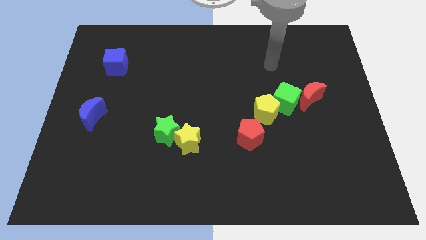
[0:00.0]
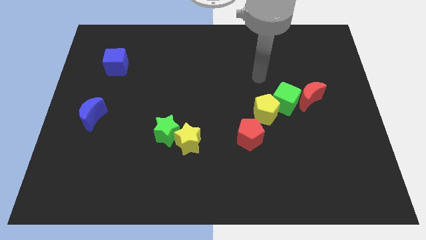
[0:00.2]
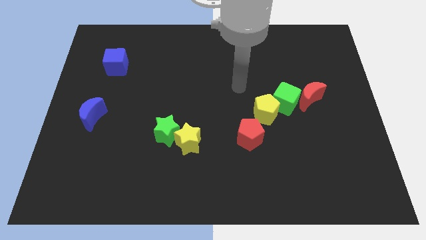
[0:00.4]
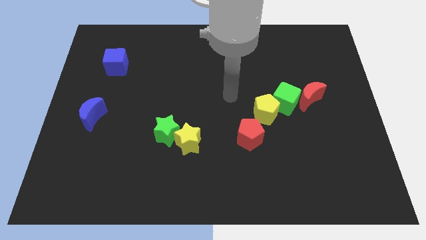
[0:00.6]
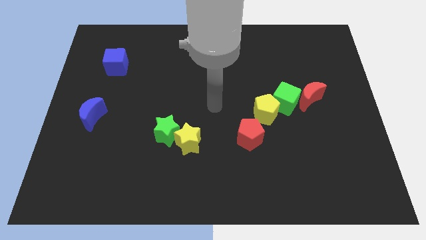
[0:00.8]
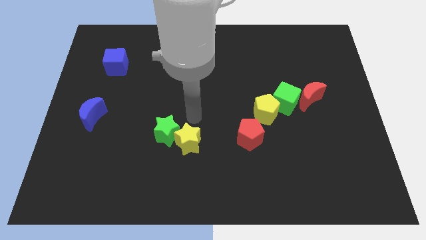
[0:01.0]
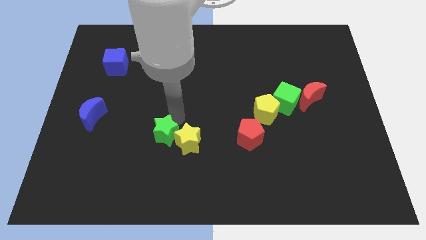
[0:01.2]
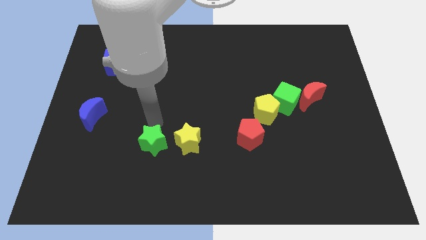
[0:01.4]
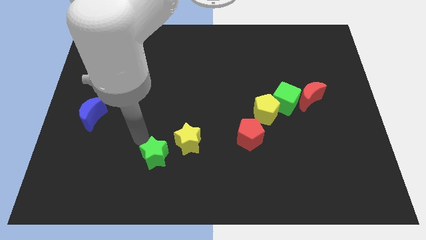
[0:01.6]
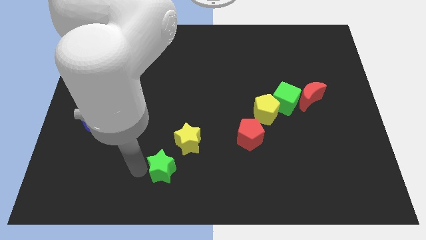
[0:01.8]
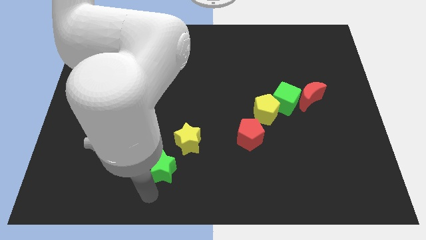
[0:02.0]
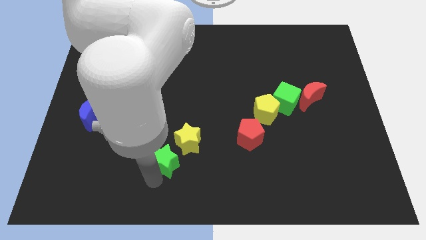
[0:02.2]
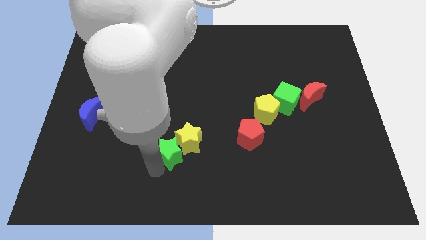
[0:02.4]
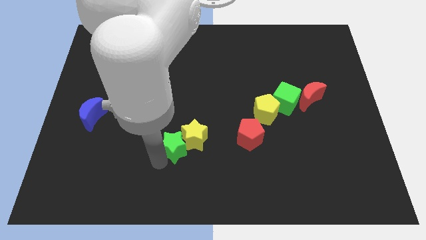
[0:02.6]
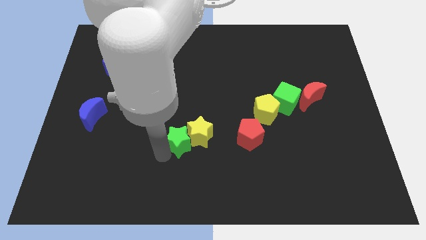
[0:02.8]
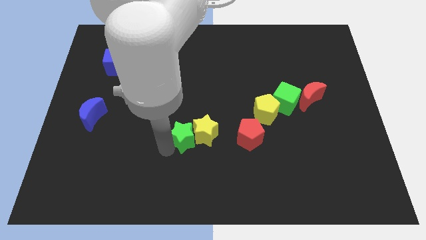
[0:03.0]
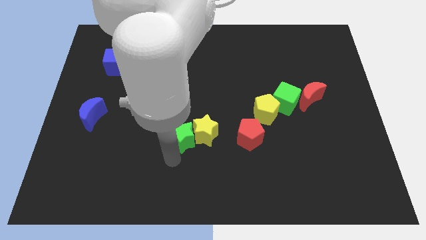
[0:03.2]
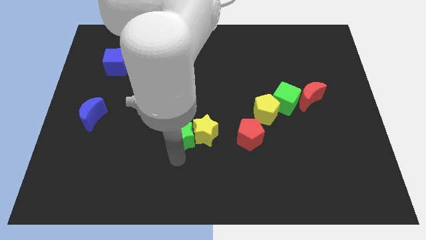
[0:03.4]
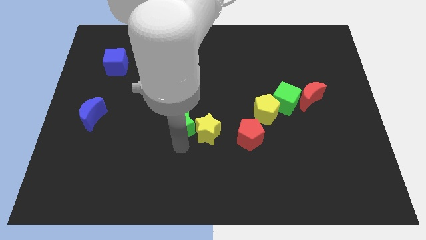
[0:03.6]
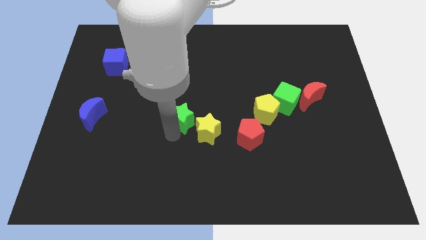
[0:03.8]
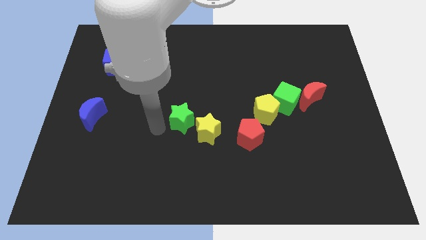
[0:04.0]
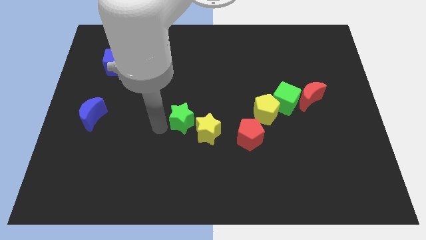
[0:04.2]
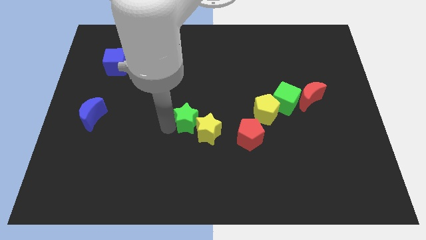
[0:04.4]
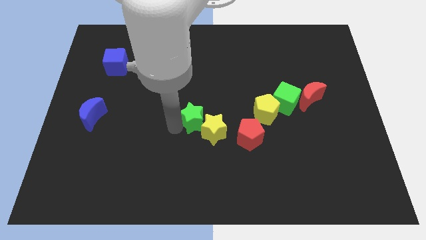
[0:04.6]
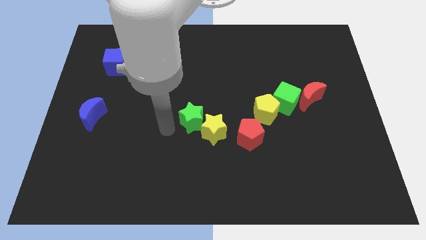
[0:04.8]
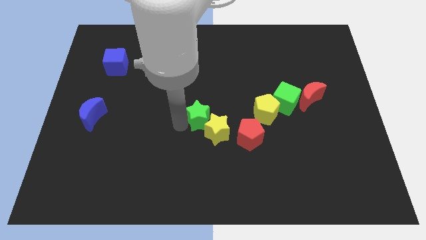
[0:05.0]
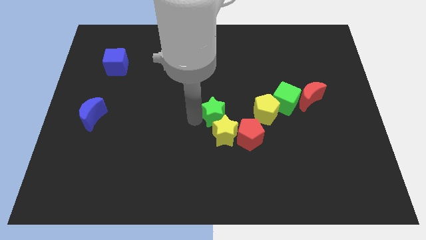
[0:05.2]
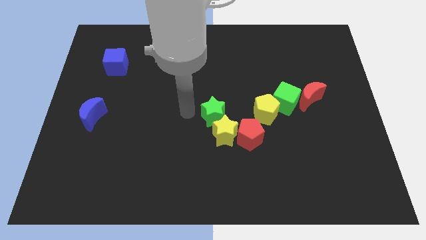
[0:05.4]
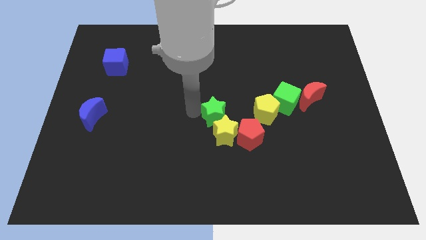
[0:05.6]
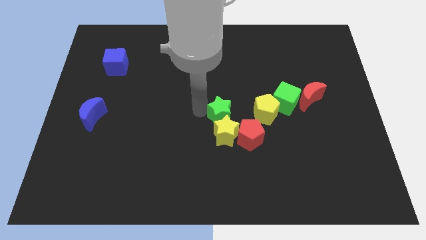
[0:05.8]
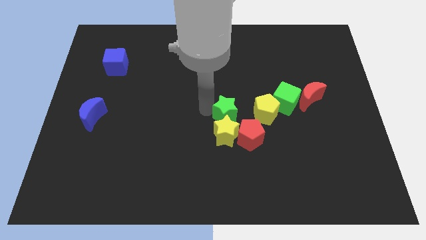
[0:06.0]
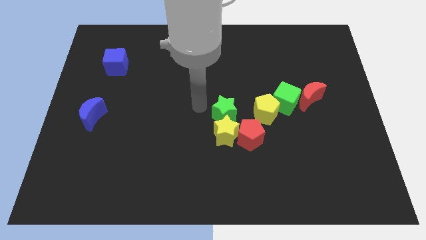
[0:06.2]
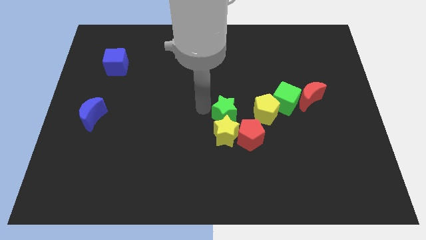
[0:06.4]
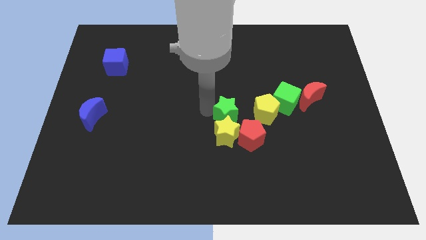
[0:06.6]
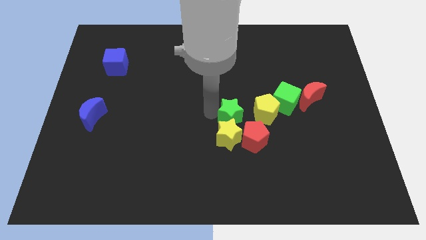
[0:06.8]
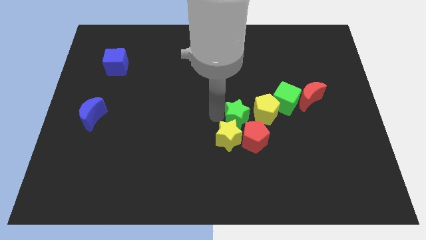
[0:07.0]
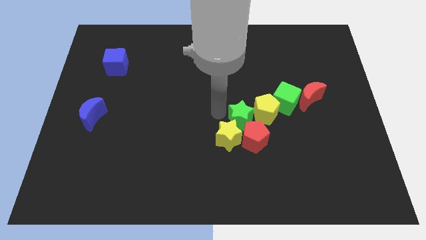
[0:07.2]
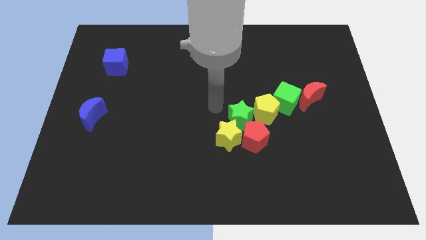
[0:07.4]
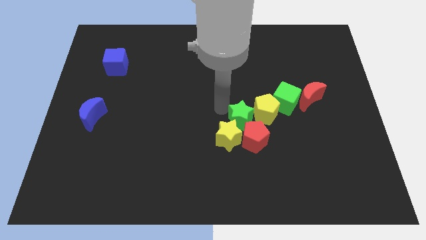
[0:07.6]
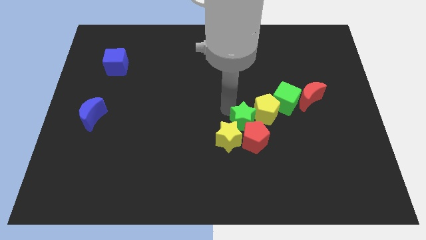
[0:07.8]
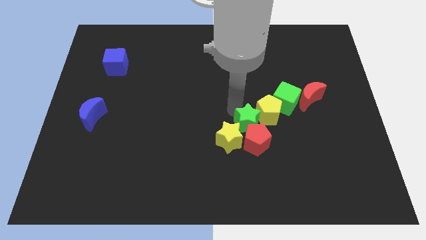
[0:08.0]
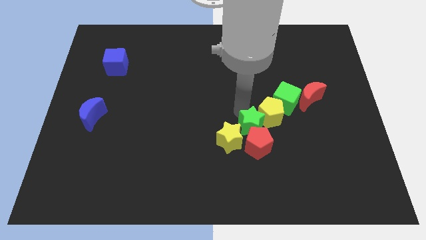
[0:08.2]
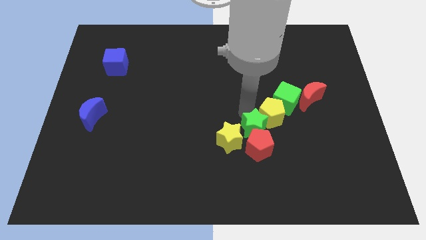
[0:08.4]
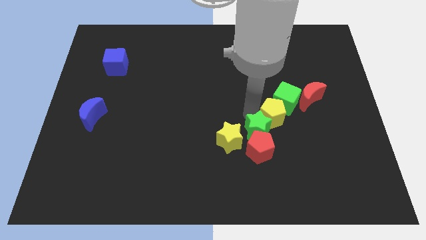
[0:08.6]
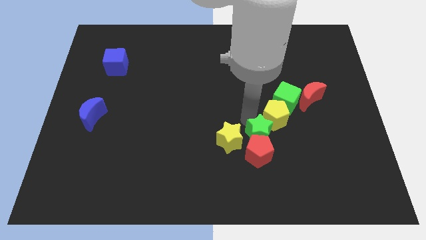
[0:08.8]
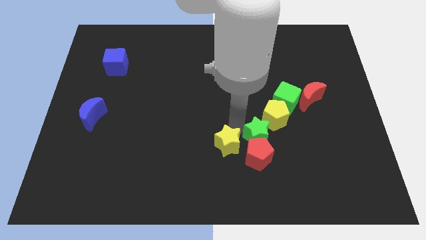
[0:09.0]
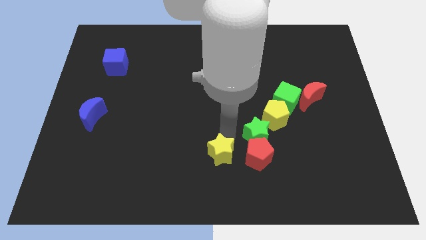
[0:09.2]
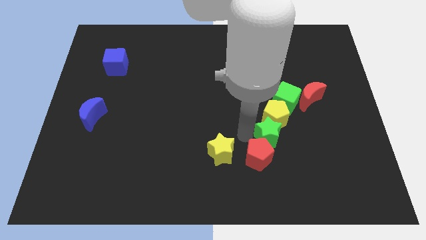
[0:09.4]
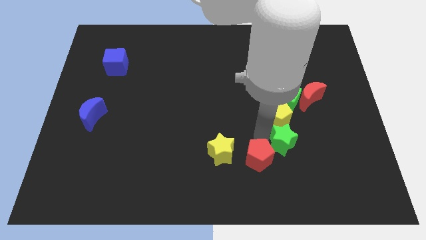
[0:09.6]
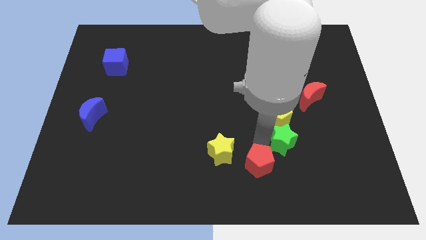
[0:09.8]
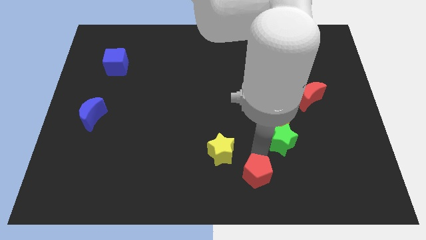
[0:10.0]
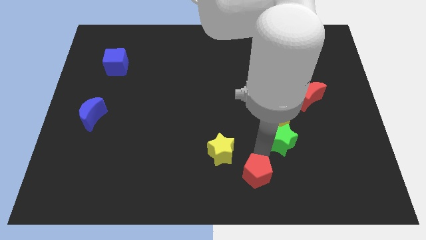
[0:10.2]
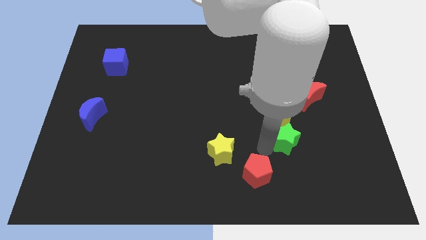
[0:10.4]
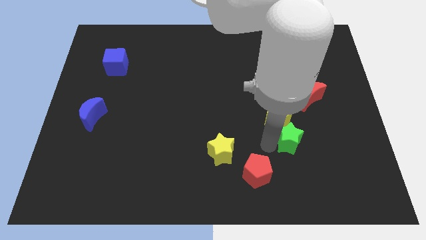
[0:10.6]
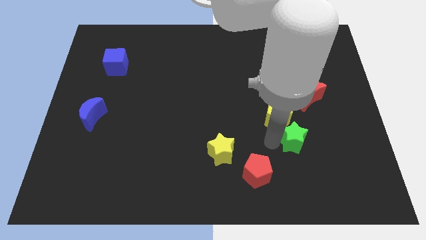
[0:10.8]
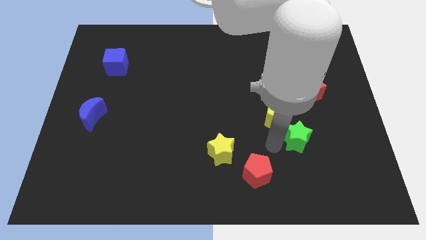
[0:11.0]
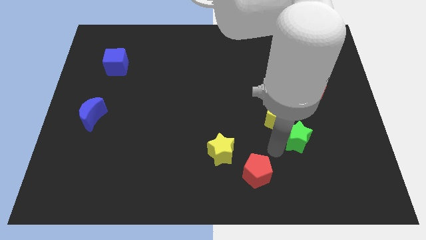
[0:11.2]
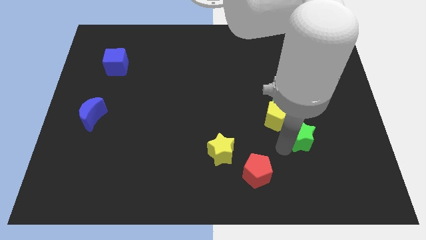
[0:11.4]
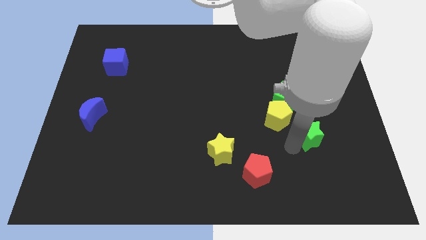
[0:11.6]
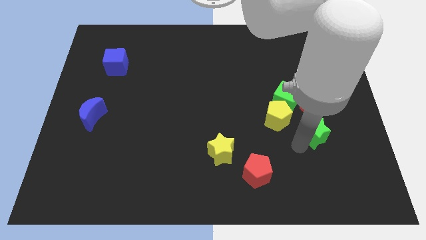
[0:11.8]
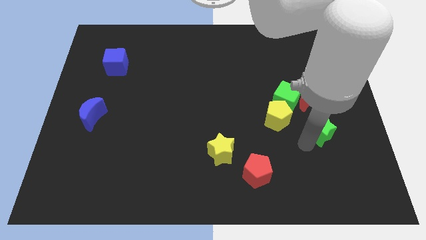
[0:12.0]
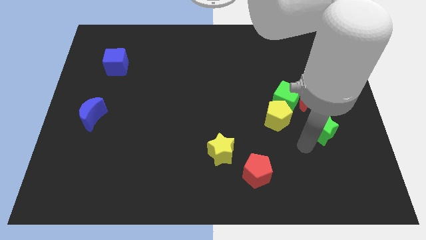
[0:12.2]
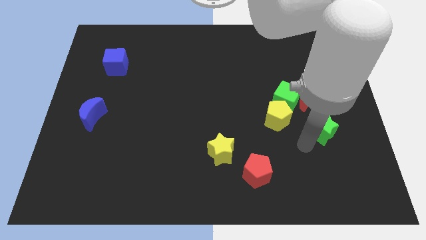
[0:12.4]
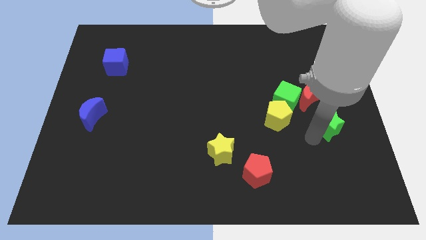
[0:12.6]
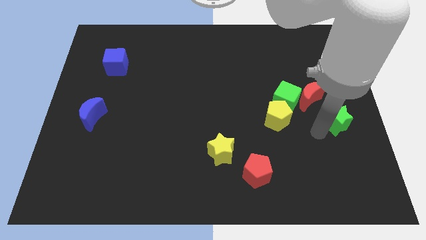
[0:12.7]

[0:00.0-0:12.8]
push the green star to the right side

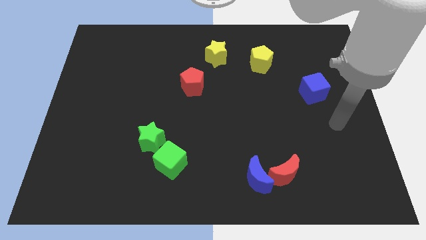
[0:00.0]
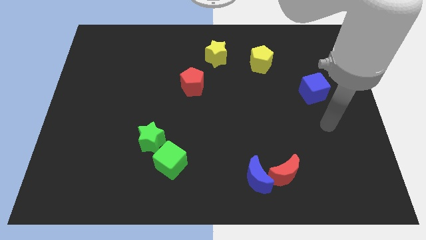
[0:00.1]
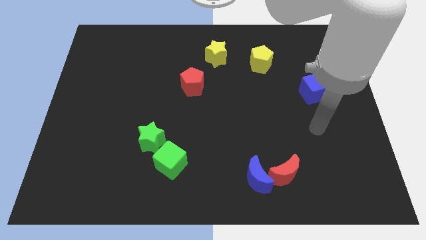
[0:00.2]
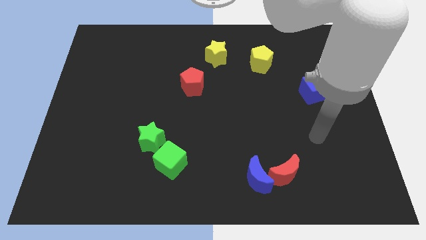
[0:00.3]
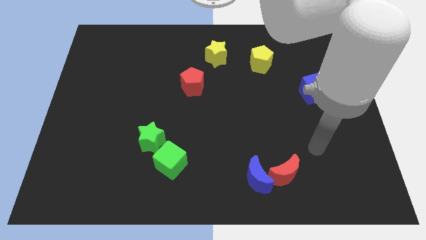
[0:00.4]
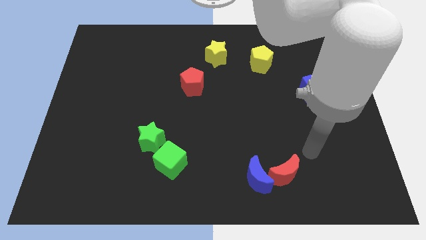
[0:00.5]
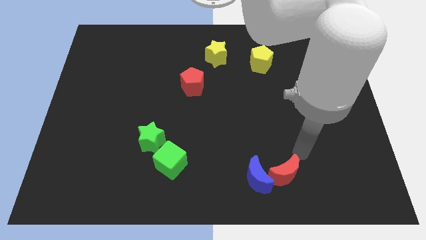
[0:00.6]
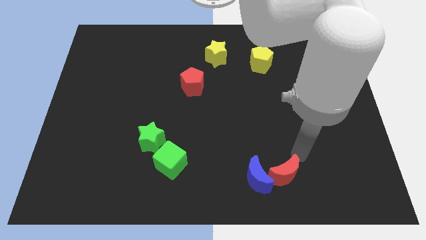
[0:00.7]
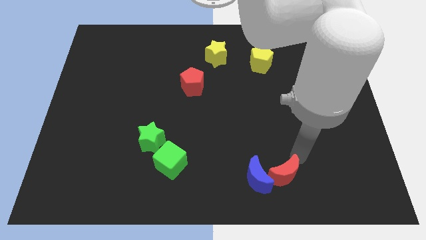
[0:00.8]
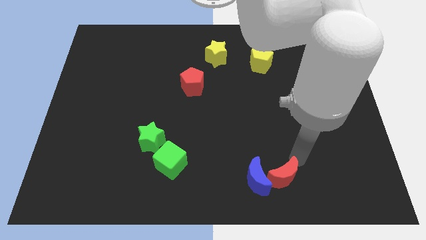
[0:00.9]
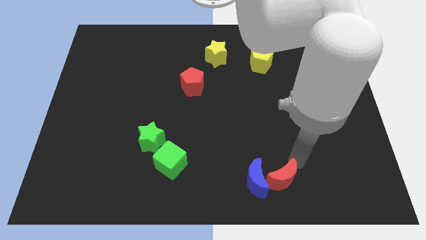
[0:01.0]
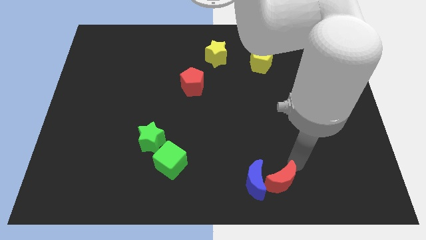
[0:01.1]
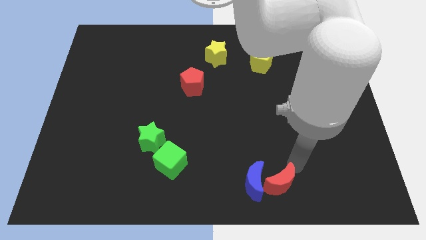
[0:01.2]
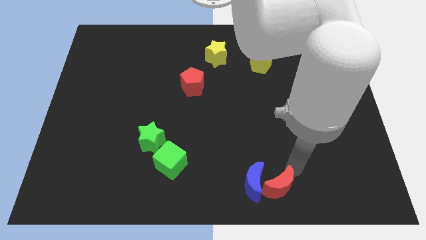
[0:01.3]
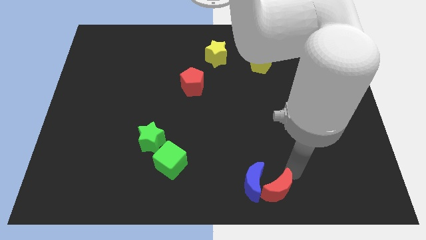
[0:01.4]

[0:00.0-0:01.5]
move the red moon to the bottom side
